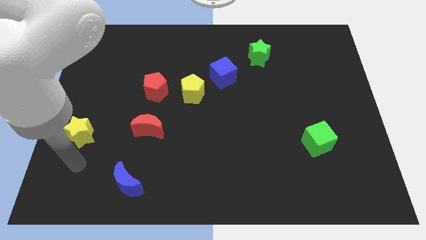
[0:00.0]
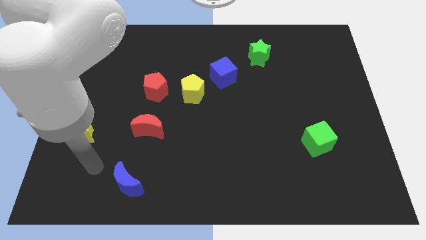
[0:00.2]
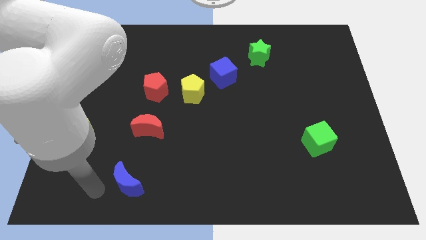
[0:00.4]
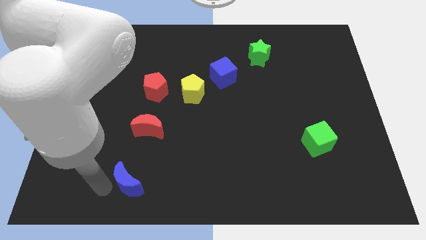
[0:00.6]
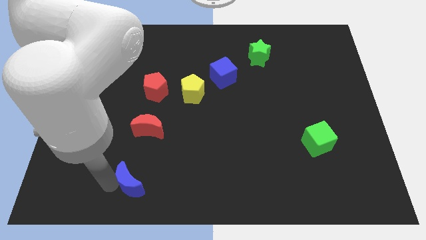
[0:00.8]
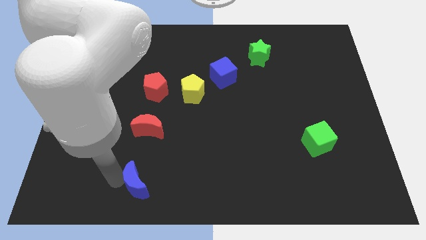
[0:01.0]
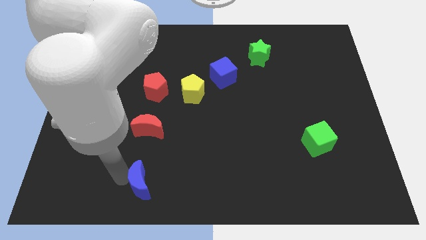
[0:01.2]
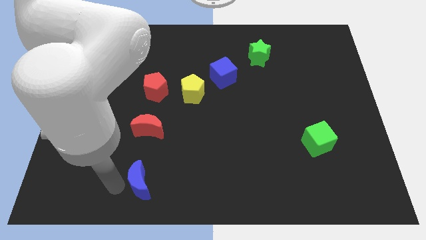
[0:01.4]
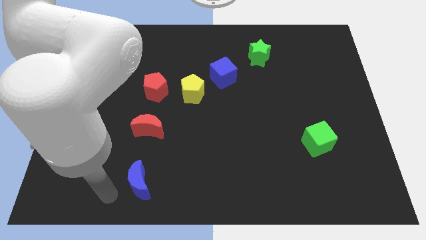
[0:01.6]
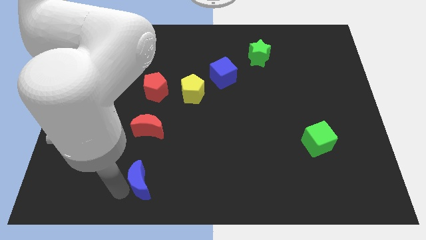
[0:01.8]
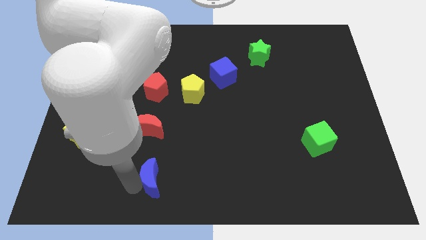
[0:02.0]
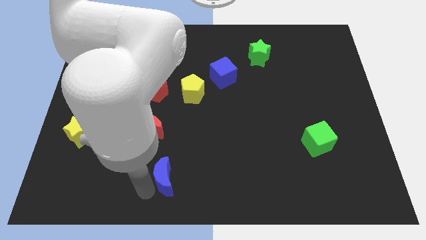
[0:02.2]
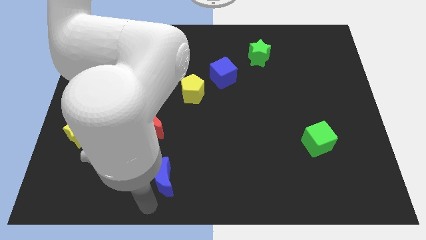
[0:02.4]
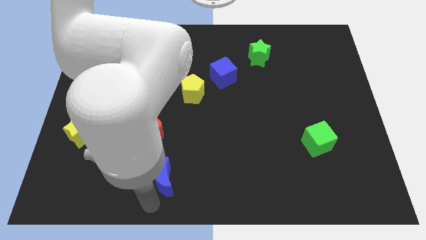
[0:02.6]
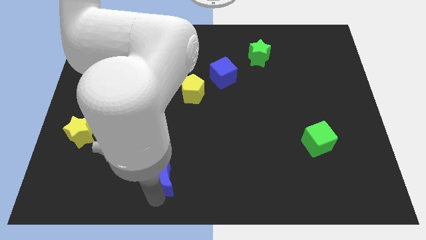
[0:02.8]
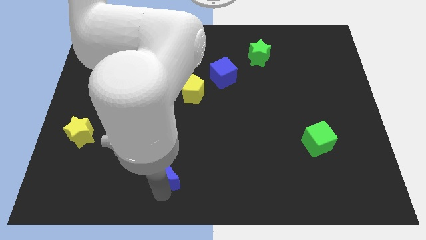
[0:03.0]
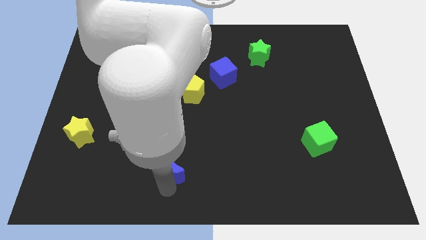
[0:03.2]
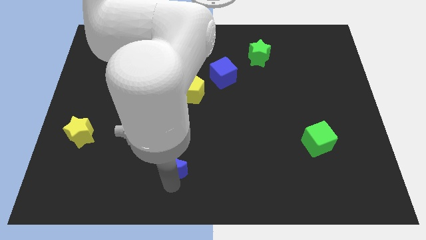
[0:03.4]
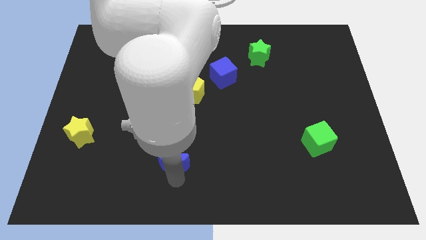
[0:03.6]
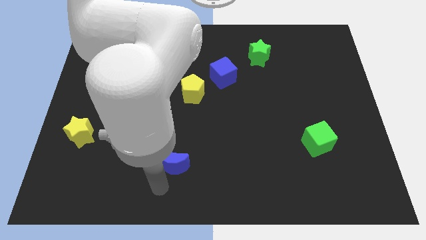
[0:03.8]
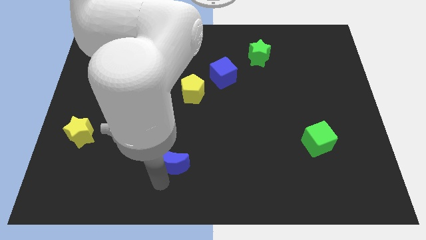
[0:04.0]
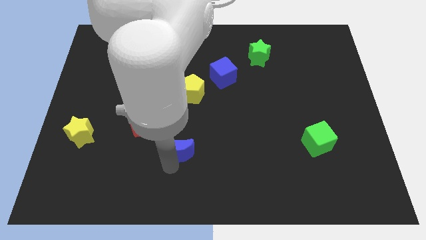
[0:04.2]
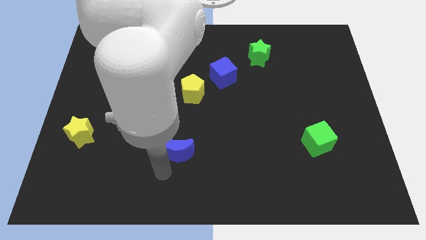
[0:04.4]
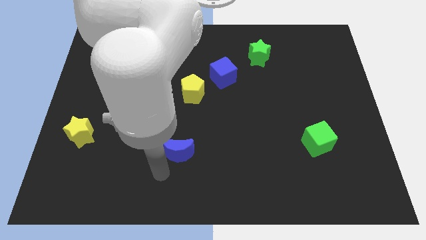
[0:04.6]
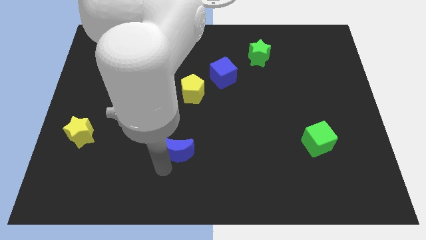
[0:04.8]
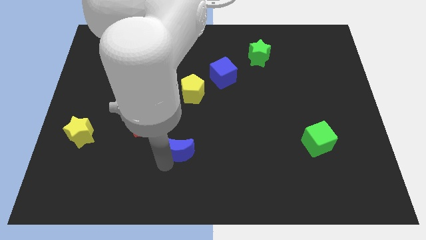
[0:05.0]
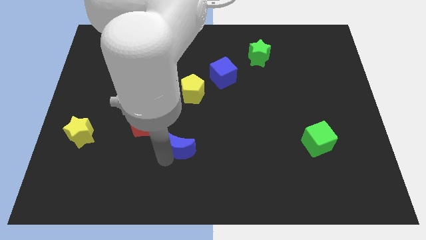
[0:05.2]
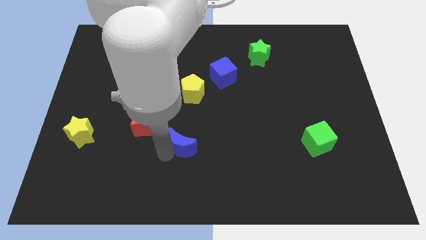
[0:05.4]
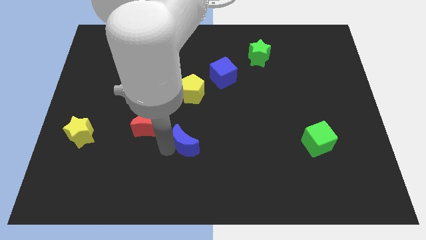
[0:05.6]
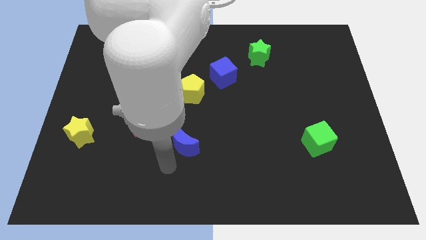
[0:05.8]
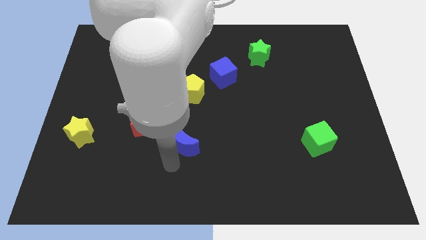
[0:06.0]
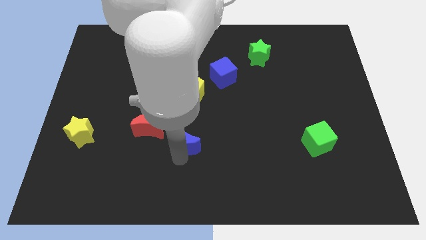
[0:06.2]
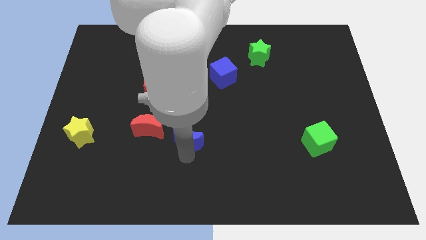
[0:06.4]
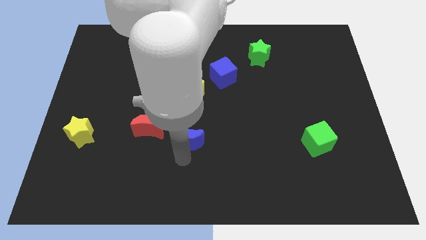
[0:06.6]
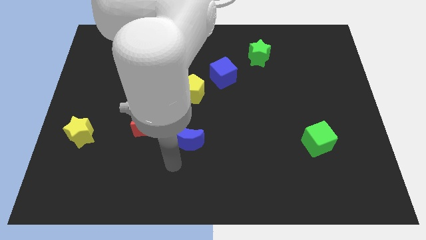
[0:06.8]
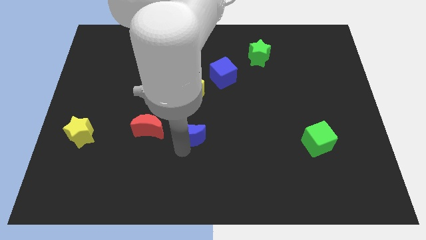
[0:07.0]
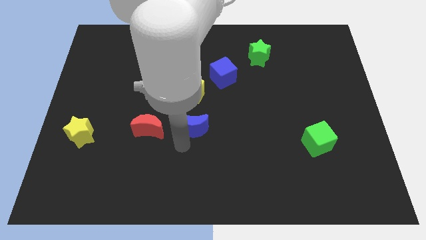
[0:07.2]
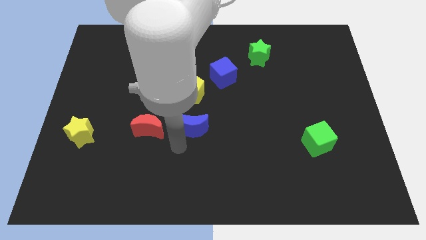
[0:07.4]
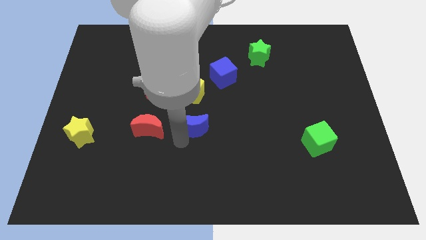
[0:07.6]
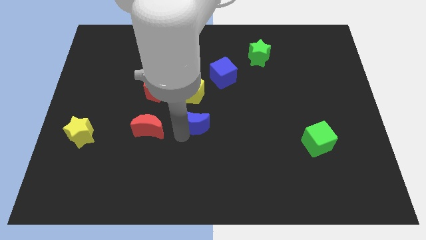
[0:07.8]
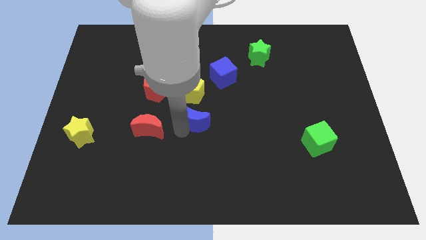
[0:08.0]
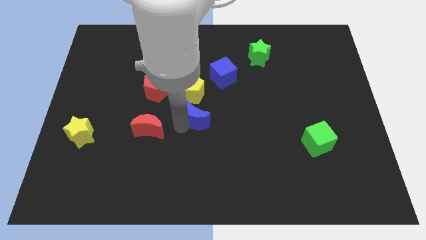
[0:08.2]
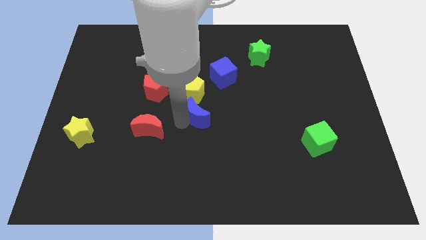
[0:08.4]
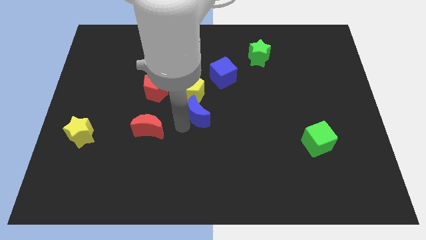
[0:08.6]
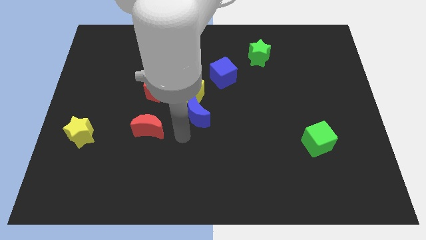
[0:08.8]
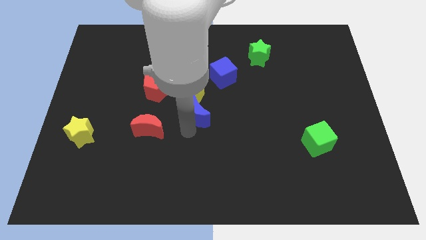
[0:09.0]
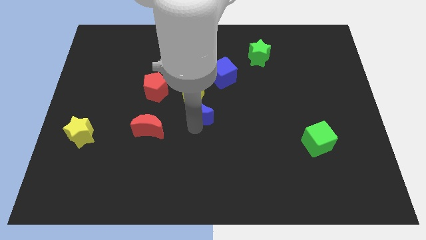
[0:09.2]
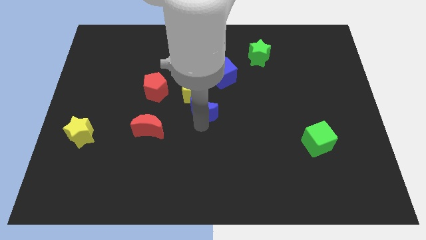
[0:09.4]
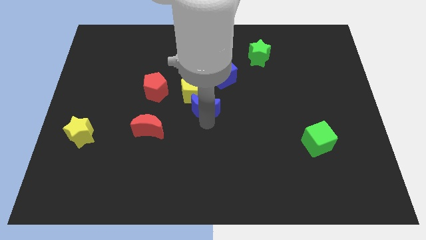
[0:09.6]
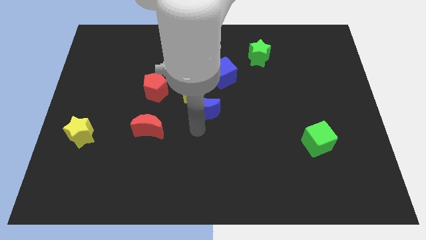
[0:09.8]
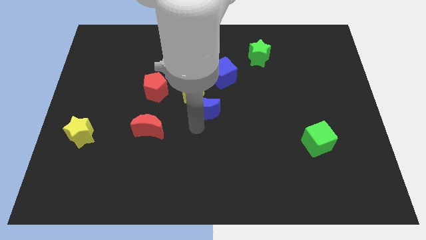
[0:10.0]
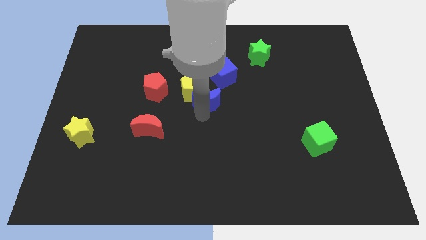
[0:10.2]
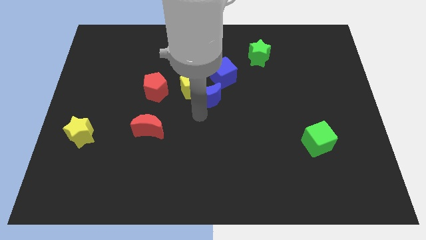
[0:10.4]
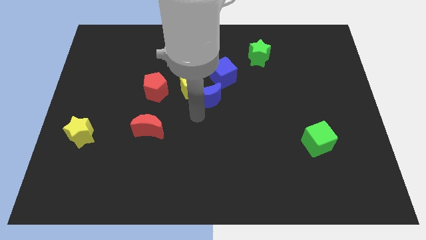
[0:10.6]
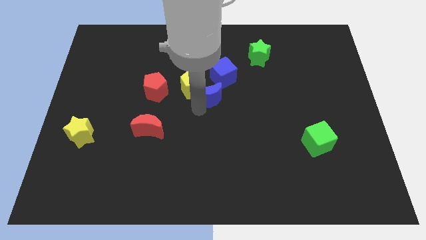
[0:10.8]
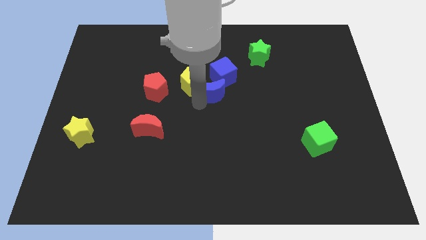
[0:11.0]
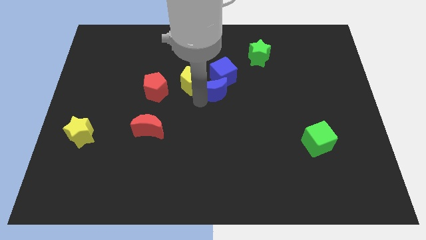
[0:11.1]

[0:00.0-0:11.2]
move the blue moon towards the blue cube

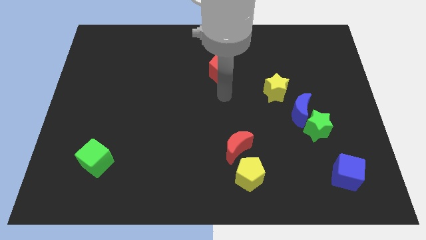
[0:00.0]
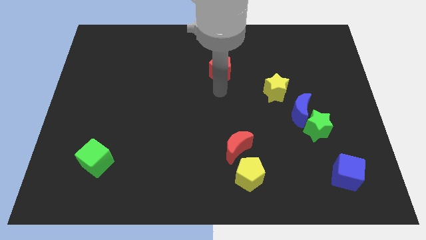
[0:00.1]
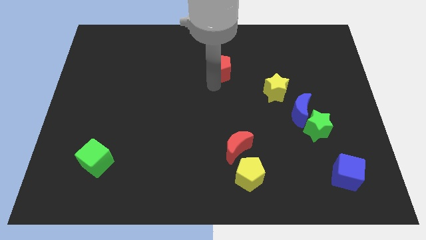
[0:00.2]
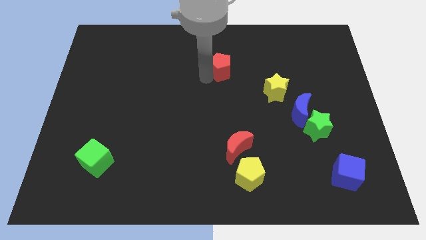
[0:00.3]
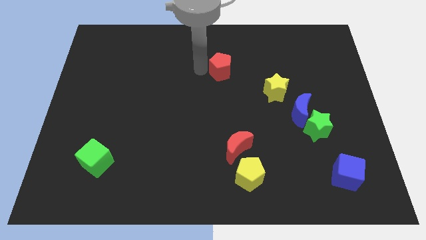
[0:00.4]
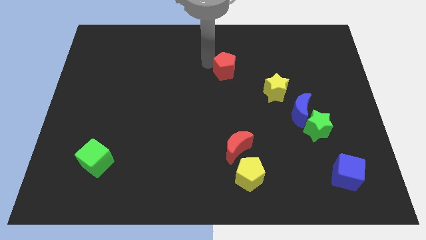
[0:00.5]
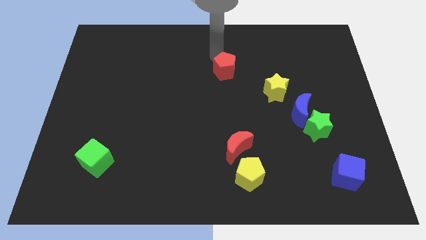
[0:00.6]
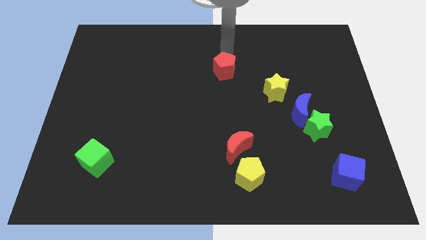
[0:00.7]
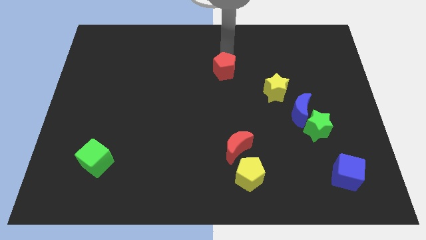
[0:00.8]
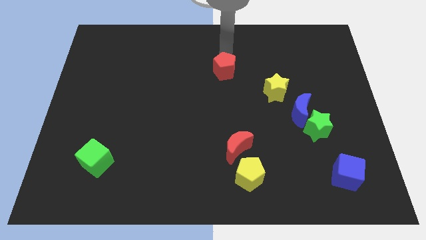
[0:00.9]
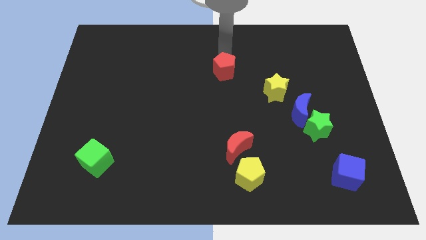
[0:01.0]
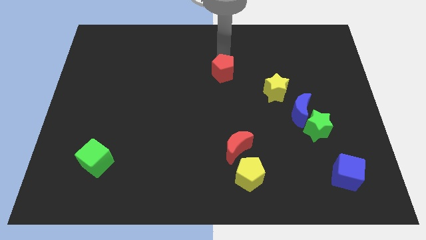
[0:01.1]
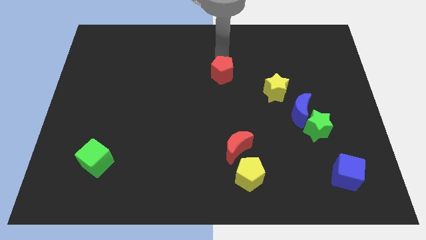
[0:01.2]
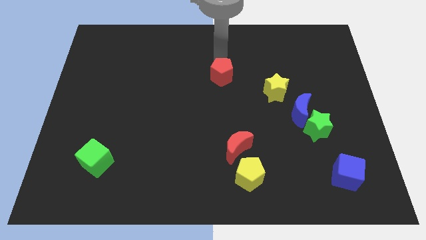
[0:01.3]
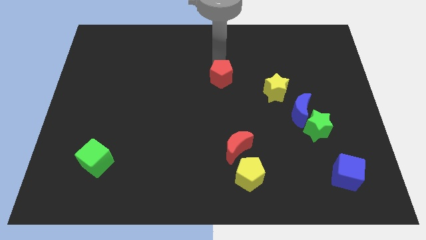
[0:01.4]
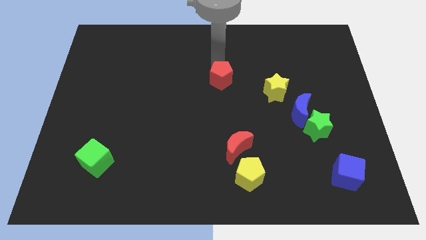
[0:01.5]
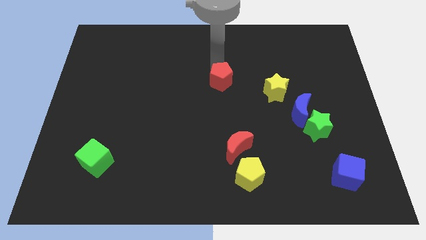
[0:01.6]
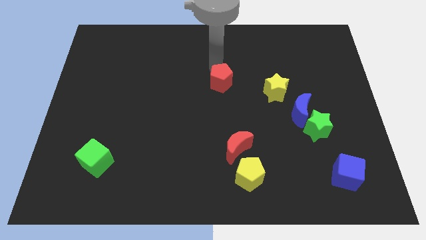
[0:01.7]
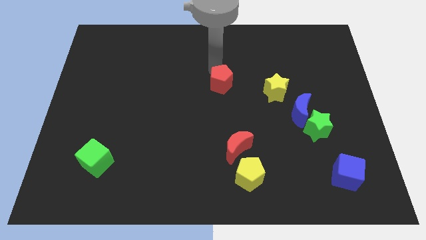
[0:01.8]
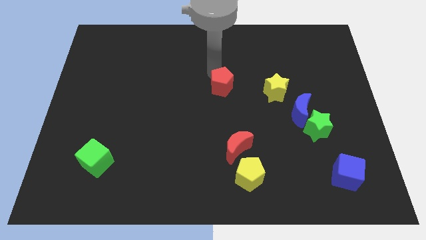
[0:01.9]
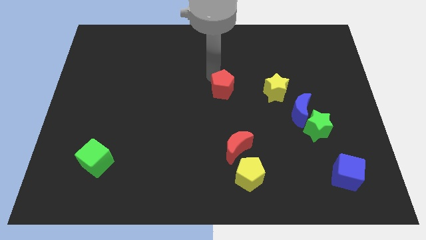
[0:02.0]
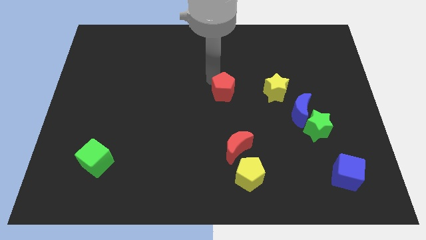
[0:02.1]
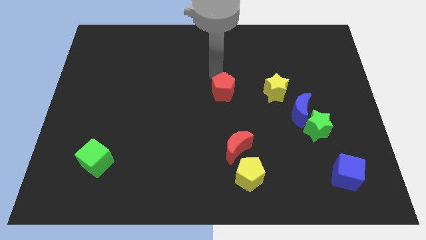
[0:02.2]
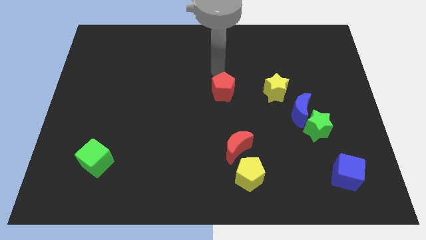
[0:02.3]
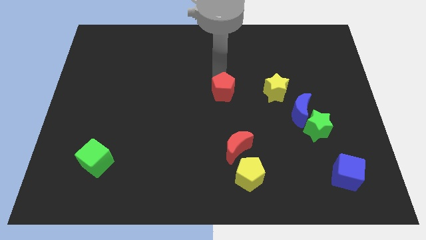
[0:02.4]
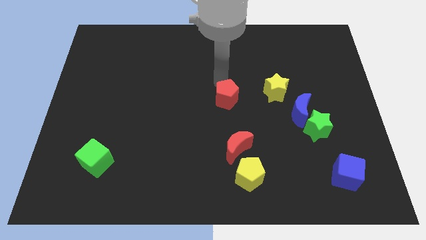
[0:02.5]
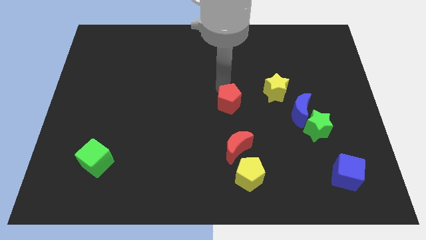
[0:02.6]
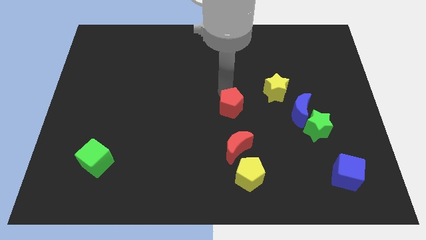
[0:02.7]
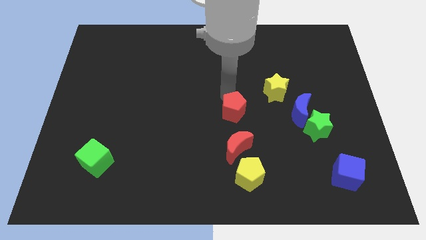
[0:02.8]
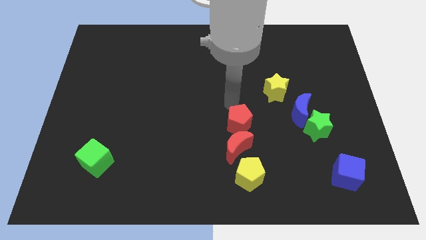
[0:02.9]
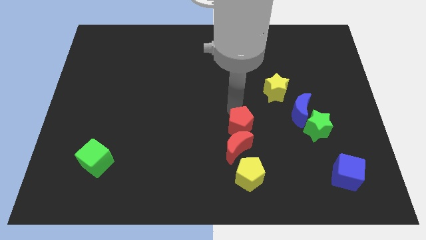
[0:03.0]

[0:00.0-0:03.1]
slide the red pentagon close to the red moon
